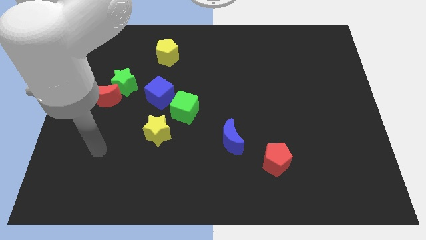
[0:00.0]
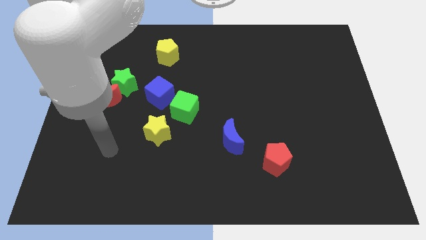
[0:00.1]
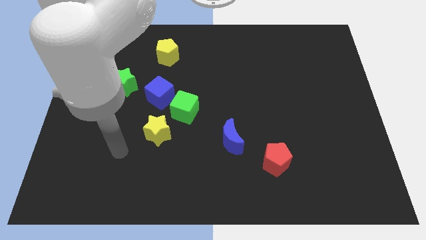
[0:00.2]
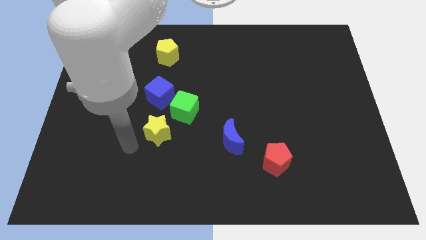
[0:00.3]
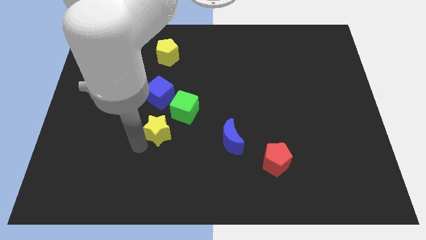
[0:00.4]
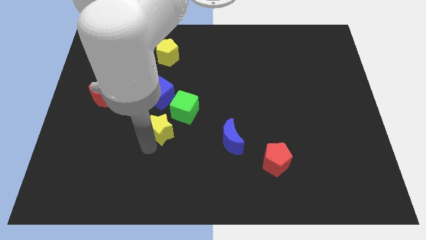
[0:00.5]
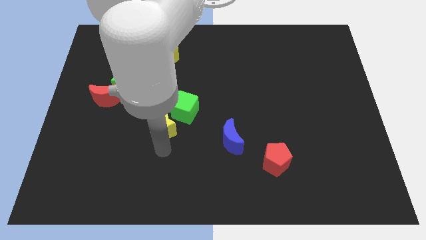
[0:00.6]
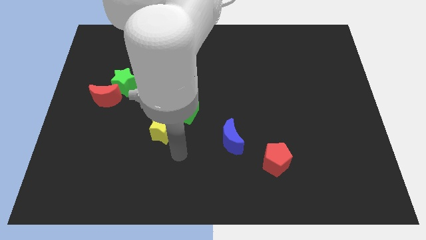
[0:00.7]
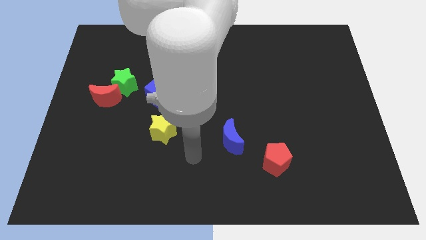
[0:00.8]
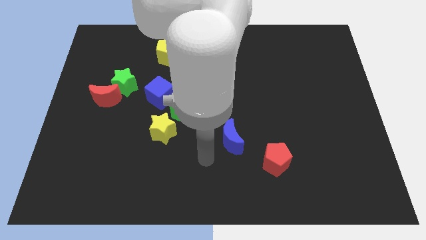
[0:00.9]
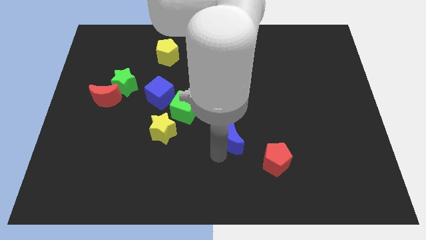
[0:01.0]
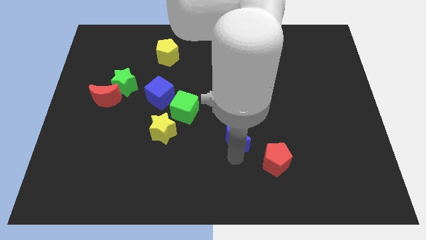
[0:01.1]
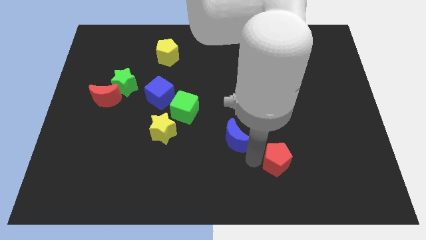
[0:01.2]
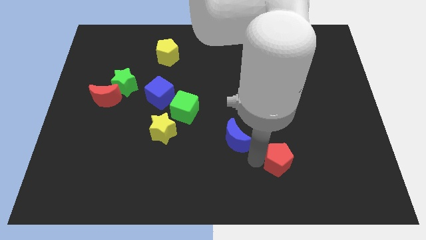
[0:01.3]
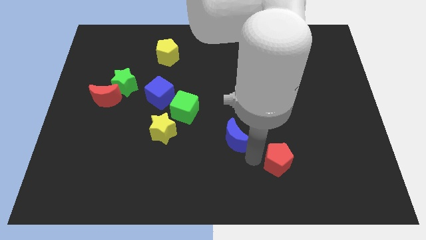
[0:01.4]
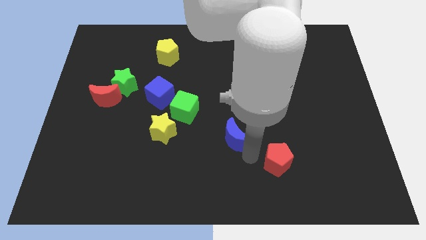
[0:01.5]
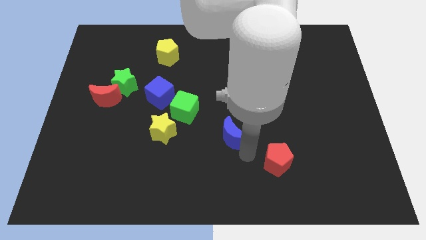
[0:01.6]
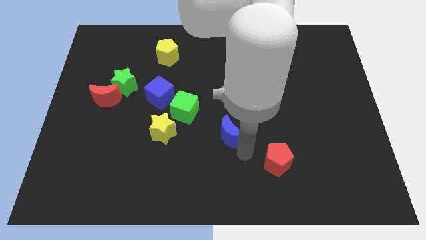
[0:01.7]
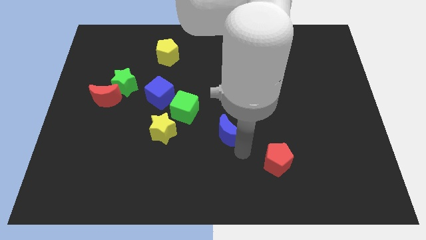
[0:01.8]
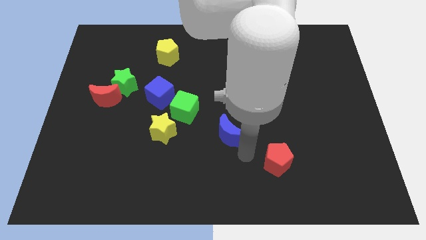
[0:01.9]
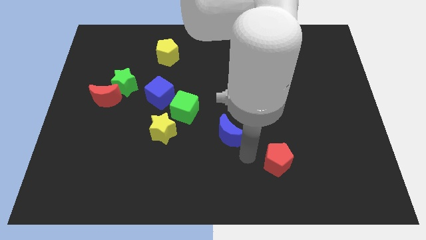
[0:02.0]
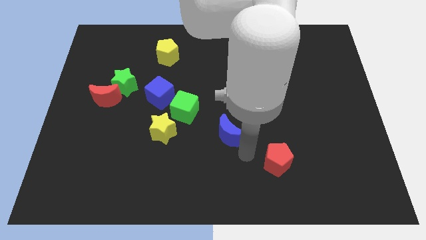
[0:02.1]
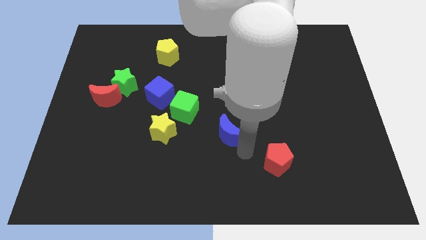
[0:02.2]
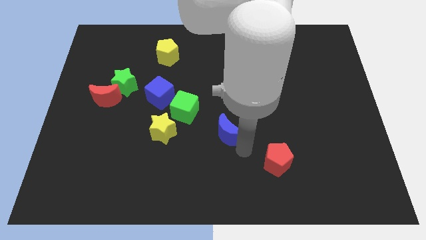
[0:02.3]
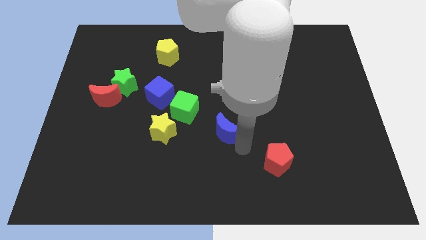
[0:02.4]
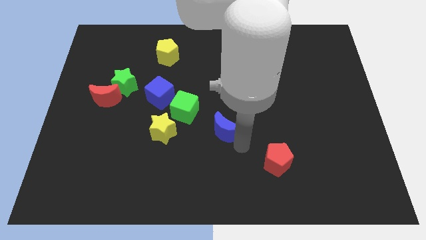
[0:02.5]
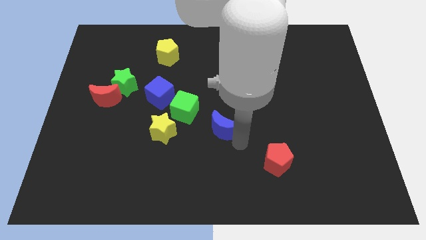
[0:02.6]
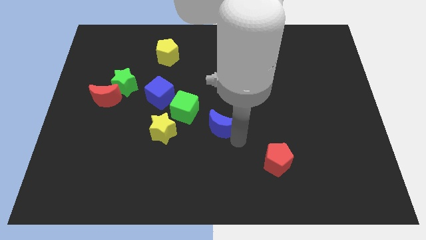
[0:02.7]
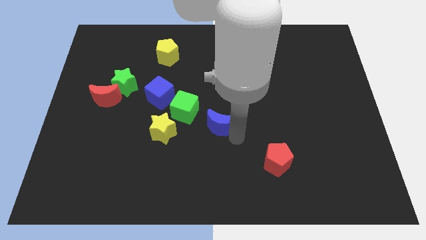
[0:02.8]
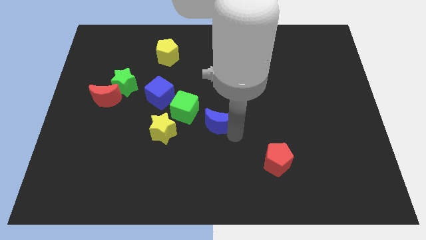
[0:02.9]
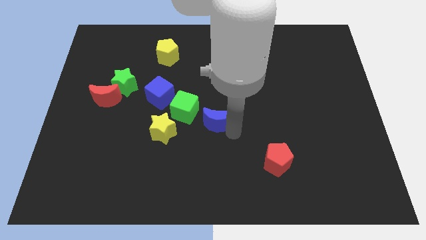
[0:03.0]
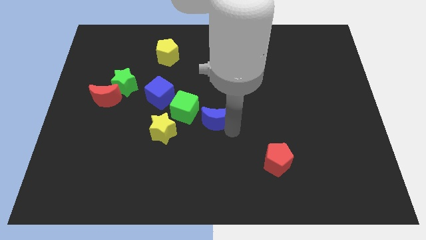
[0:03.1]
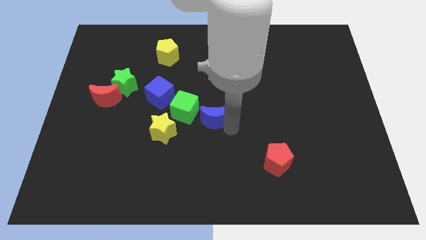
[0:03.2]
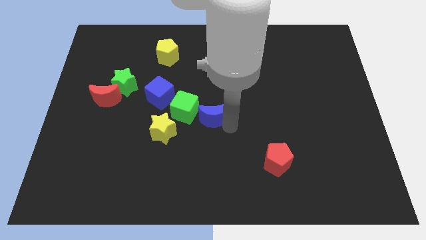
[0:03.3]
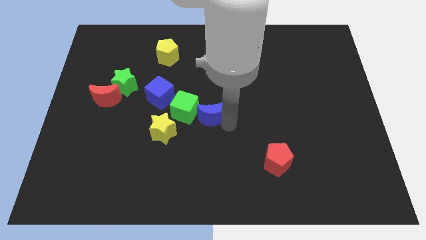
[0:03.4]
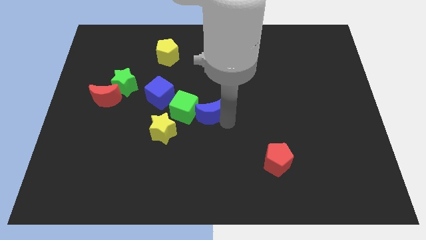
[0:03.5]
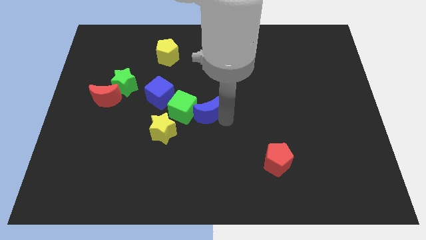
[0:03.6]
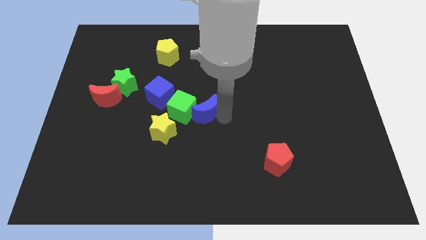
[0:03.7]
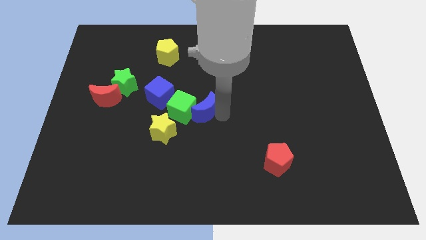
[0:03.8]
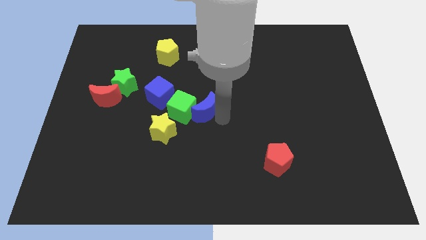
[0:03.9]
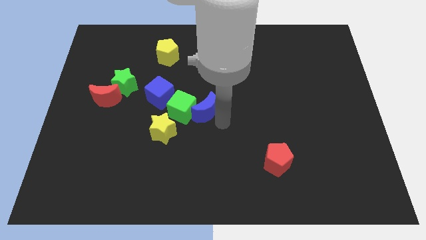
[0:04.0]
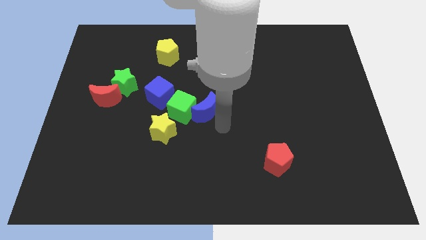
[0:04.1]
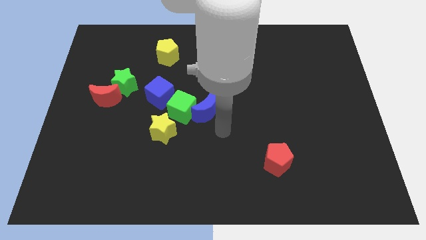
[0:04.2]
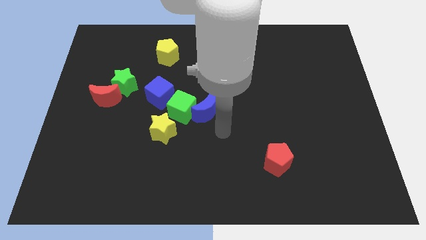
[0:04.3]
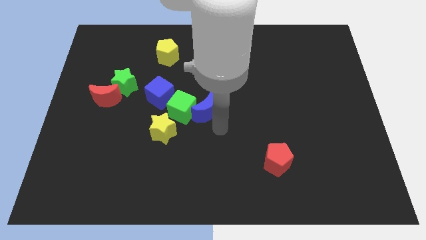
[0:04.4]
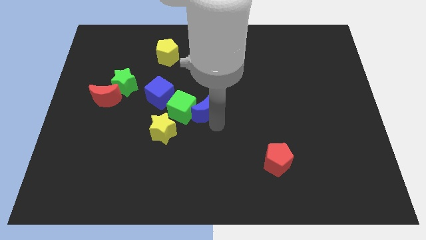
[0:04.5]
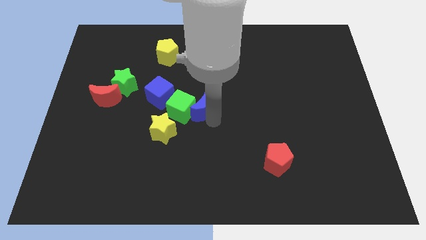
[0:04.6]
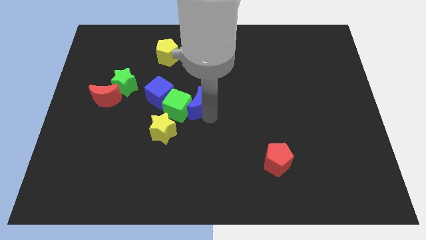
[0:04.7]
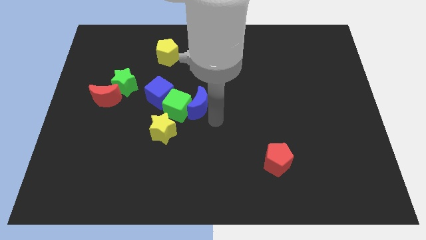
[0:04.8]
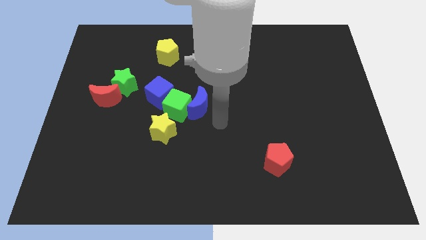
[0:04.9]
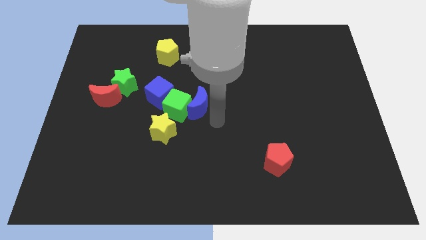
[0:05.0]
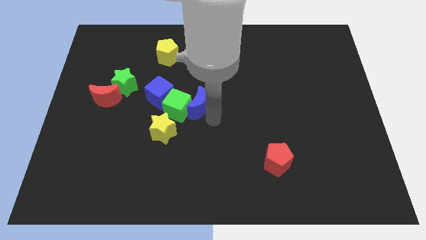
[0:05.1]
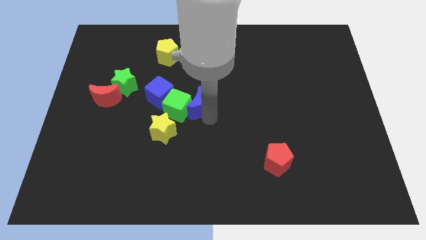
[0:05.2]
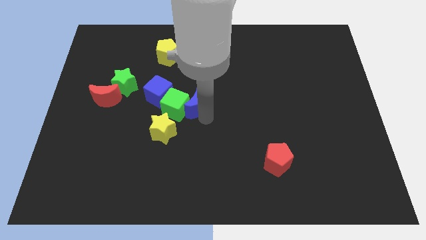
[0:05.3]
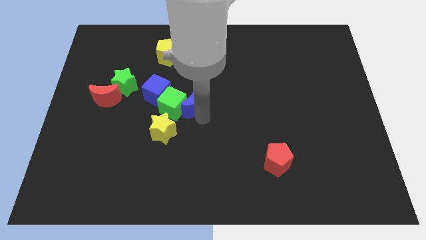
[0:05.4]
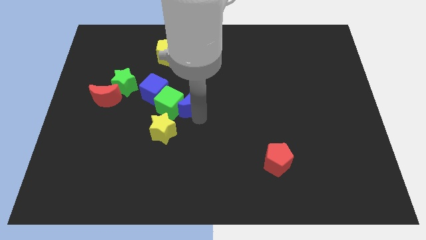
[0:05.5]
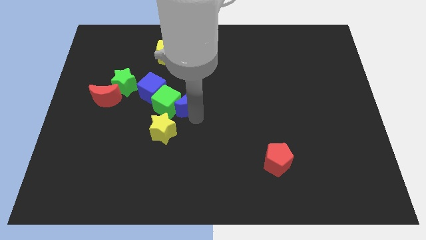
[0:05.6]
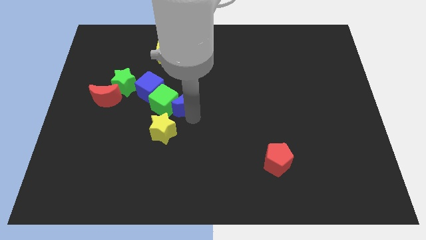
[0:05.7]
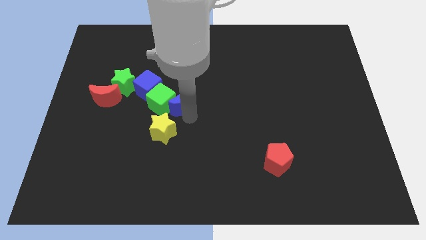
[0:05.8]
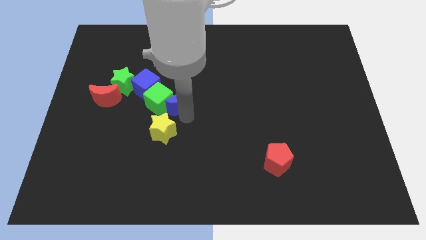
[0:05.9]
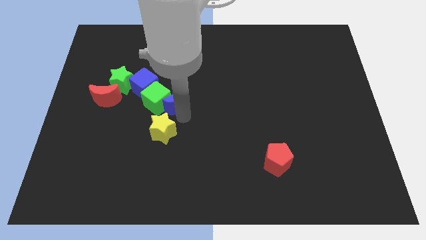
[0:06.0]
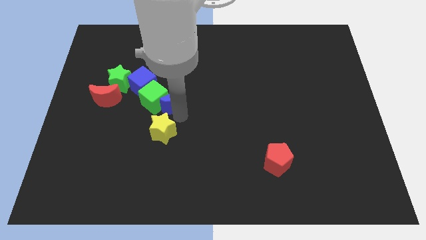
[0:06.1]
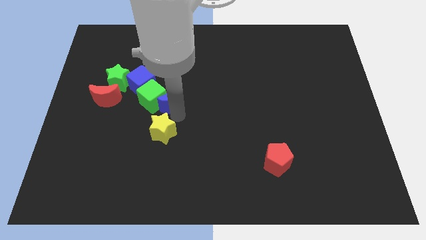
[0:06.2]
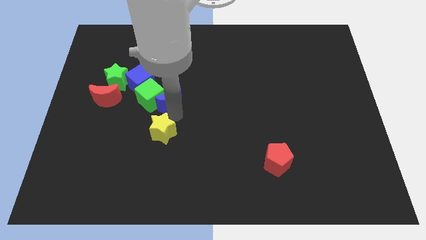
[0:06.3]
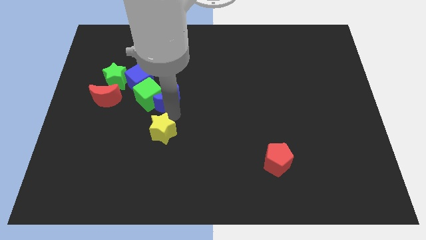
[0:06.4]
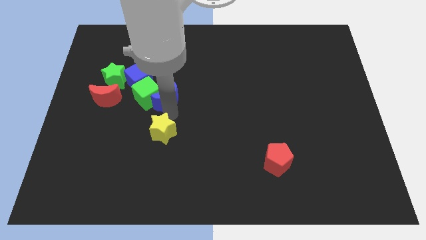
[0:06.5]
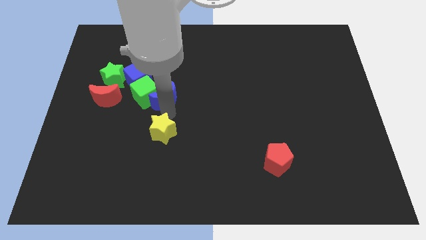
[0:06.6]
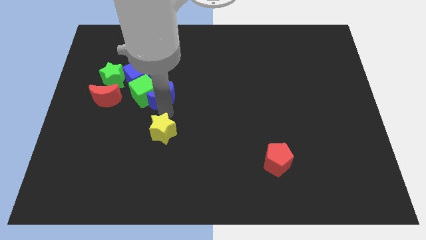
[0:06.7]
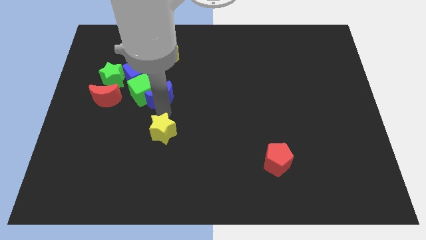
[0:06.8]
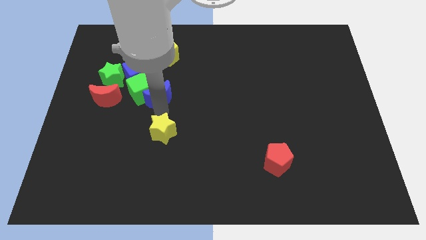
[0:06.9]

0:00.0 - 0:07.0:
move the blue moon up and to the left

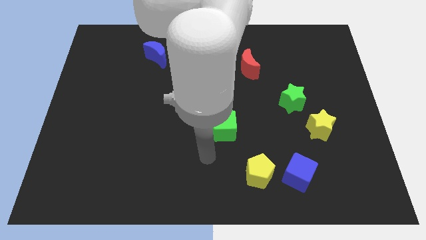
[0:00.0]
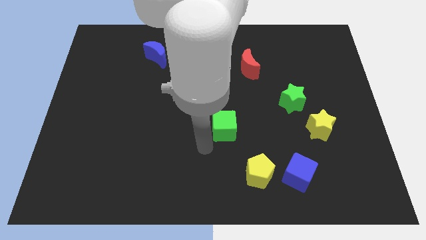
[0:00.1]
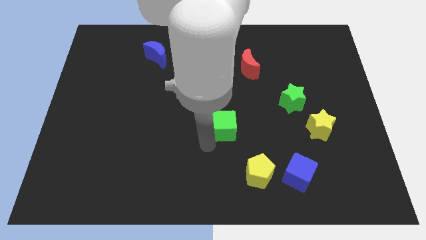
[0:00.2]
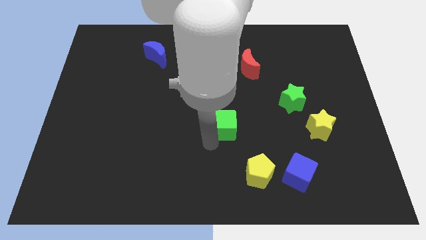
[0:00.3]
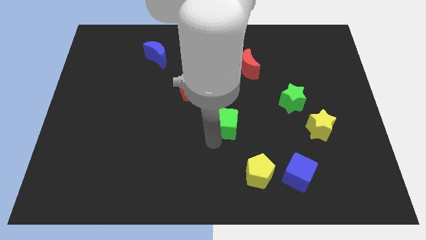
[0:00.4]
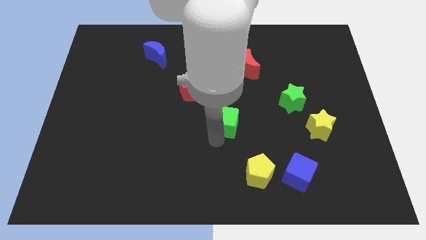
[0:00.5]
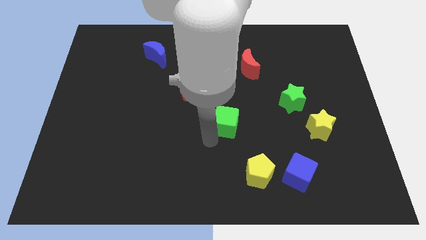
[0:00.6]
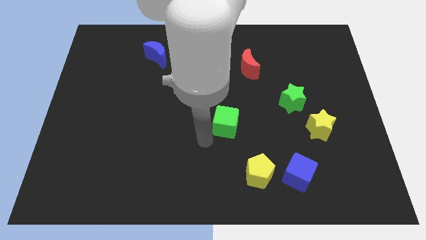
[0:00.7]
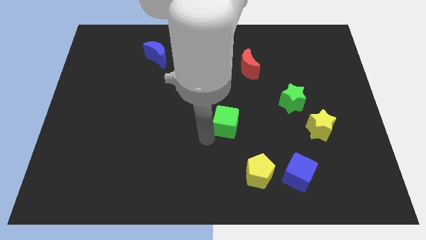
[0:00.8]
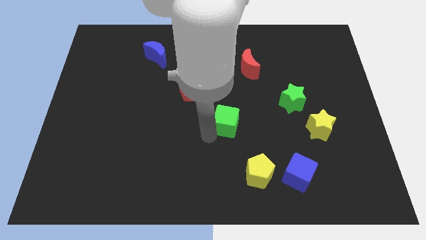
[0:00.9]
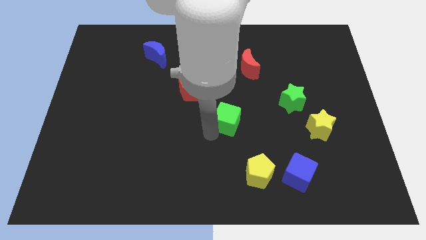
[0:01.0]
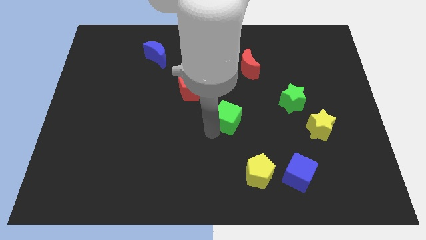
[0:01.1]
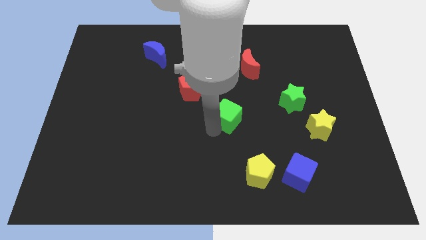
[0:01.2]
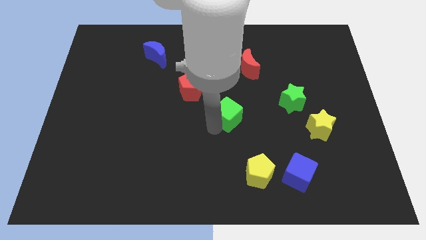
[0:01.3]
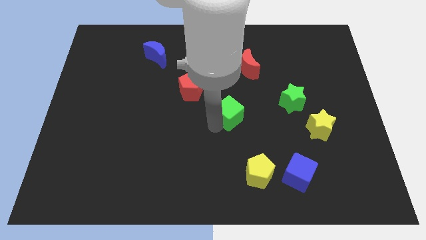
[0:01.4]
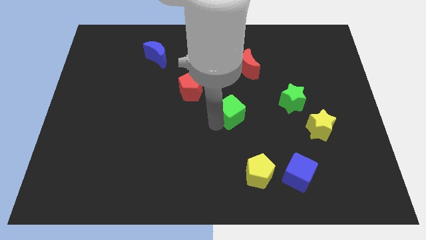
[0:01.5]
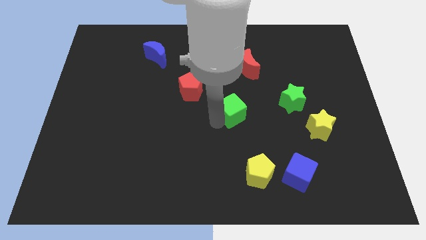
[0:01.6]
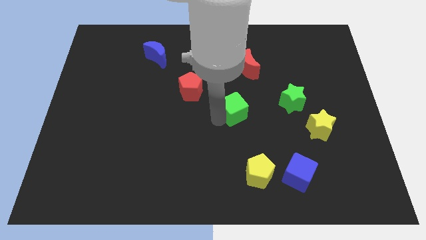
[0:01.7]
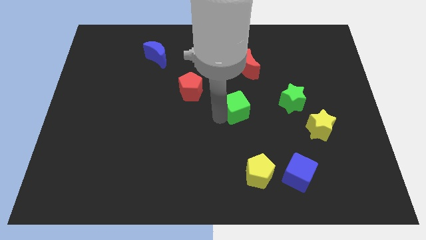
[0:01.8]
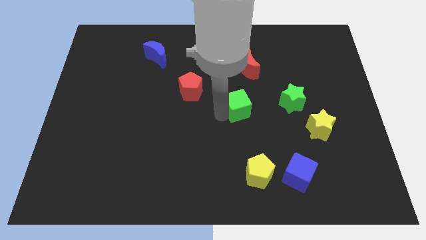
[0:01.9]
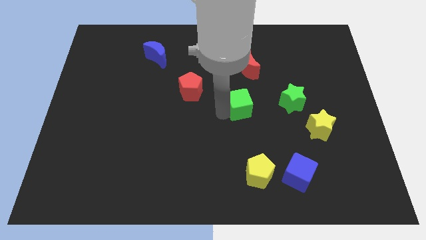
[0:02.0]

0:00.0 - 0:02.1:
push the green cube diagonally up and right a little bit
